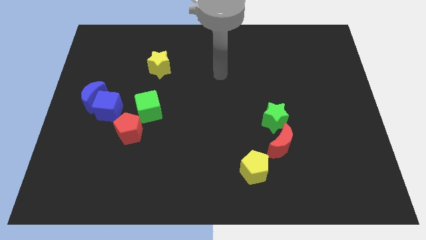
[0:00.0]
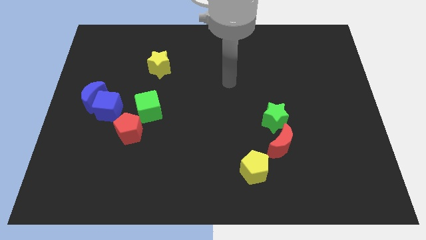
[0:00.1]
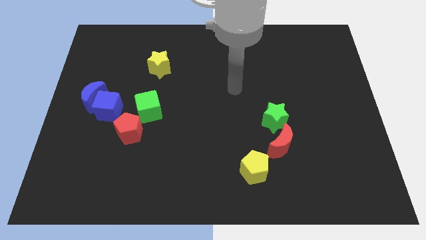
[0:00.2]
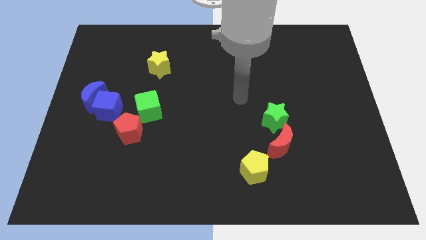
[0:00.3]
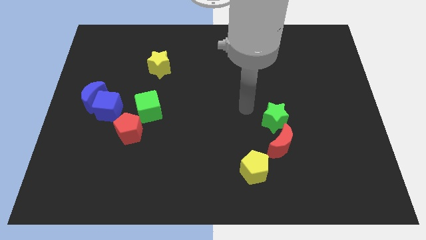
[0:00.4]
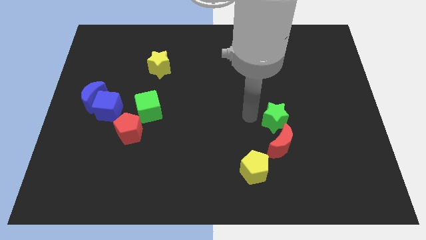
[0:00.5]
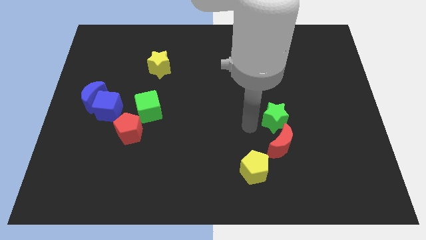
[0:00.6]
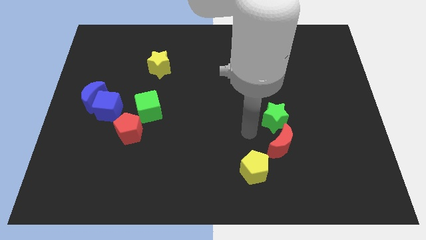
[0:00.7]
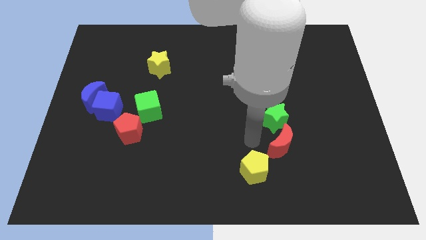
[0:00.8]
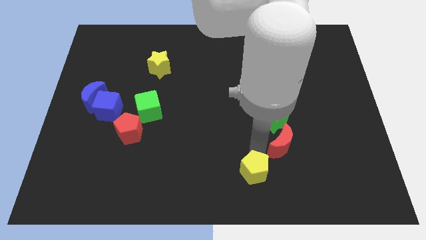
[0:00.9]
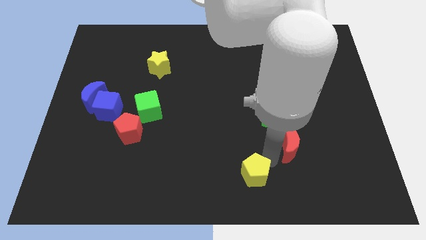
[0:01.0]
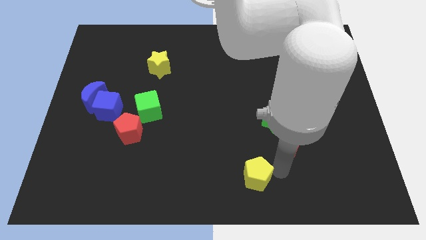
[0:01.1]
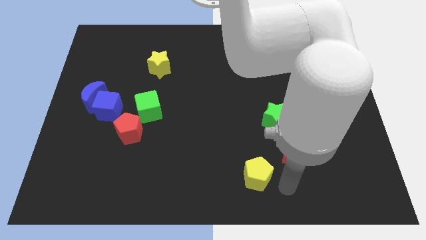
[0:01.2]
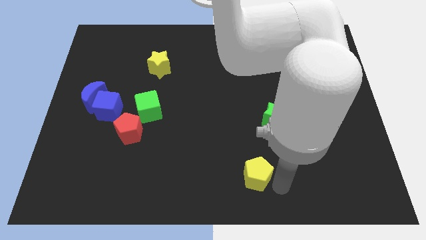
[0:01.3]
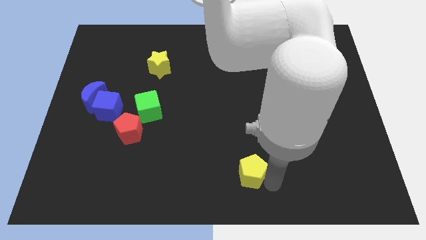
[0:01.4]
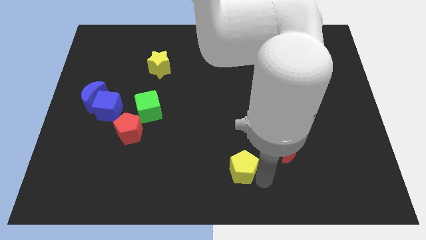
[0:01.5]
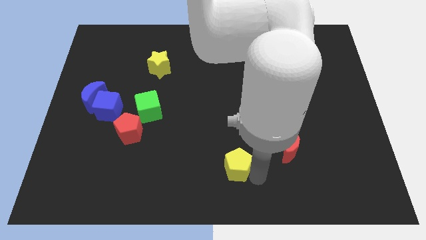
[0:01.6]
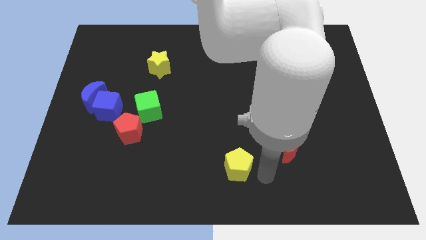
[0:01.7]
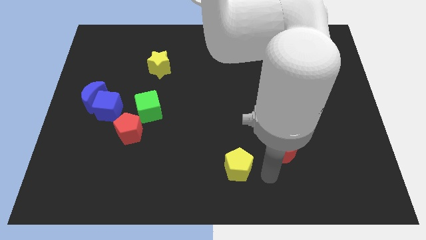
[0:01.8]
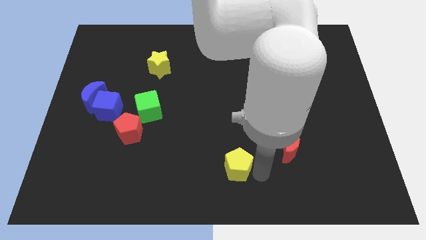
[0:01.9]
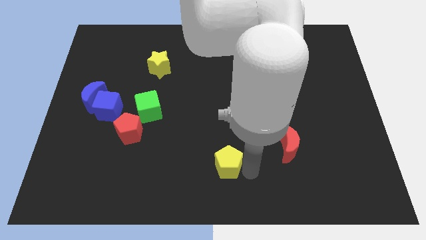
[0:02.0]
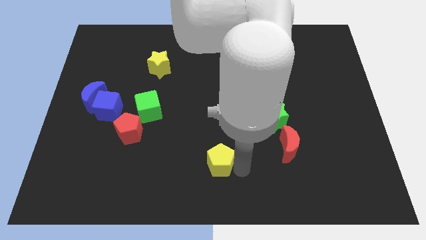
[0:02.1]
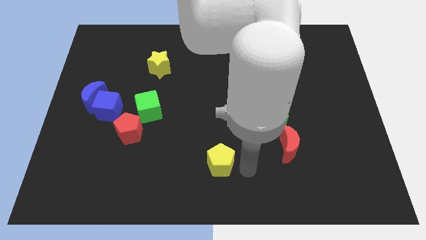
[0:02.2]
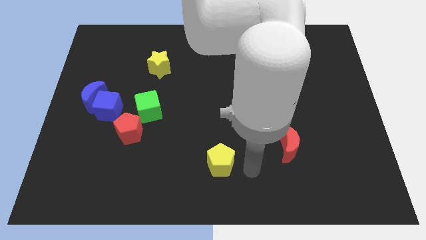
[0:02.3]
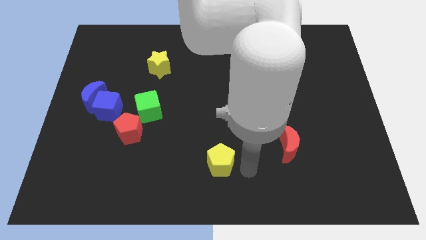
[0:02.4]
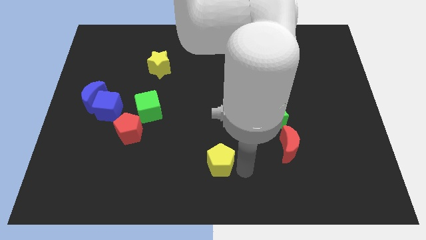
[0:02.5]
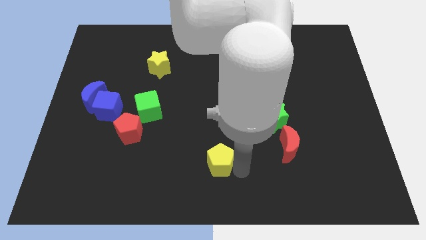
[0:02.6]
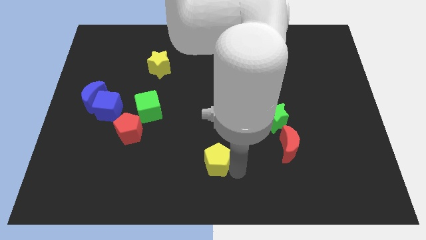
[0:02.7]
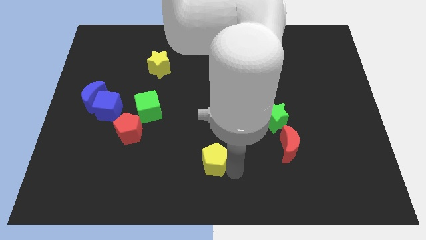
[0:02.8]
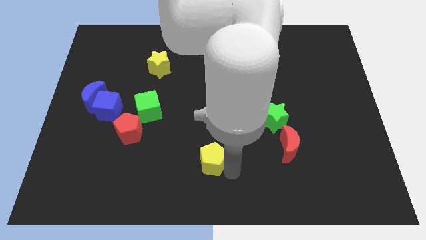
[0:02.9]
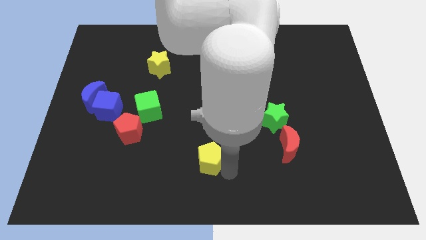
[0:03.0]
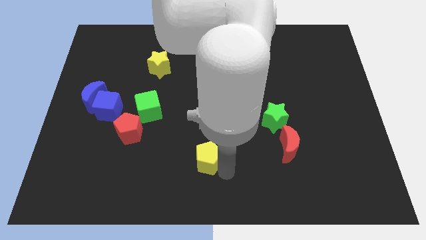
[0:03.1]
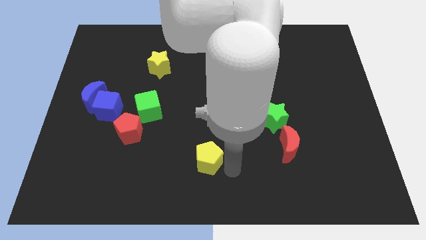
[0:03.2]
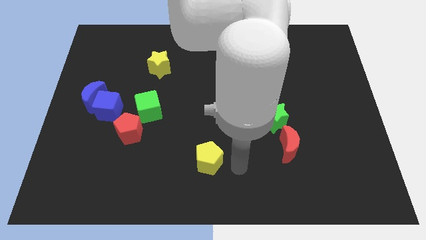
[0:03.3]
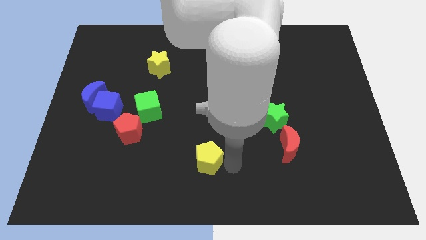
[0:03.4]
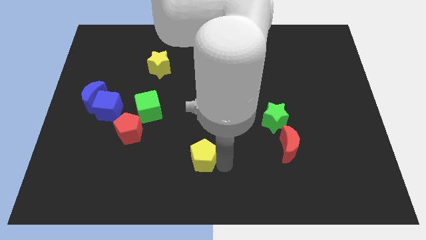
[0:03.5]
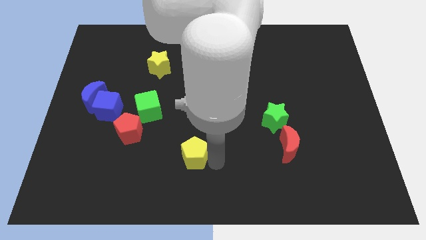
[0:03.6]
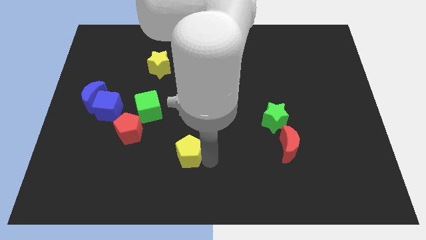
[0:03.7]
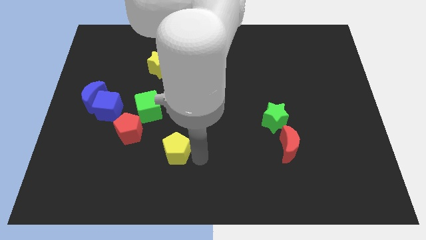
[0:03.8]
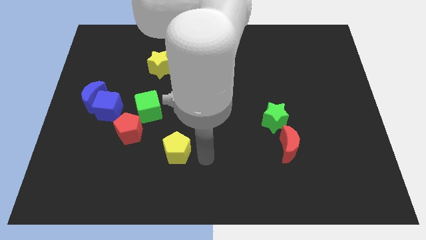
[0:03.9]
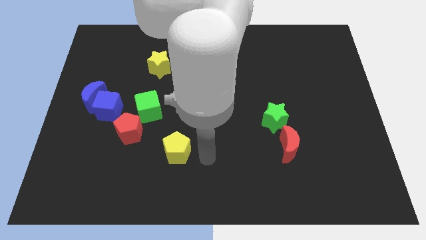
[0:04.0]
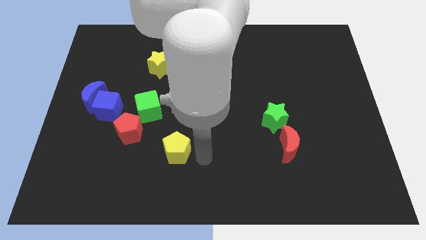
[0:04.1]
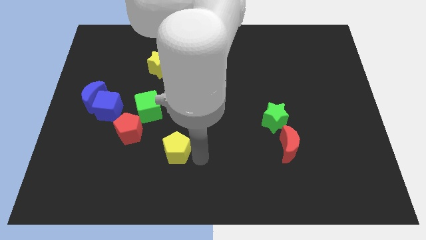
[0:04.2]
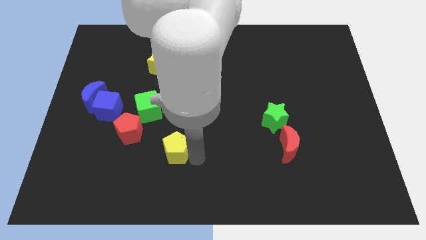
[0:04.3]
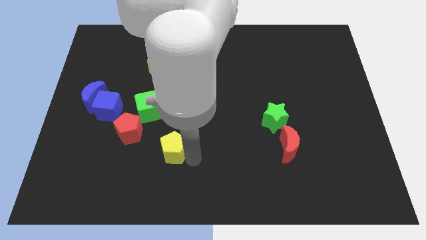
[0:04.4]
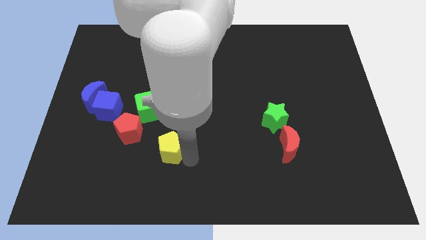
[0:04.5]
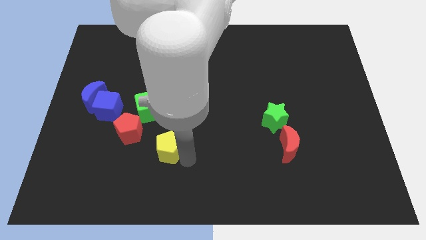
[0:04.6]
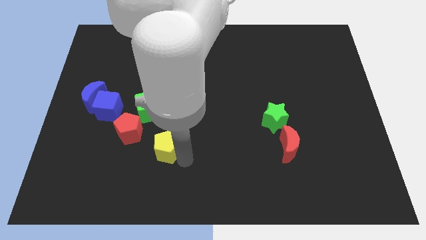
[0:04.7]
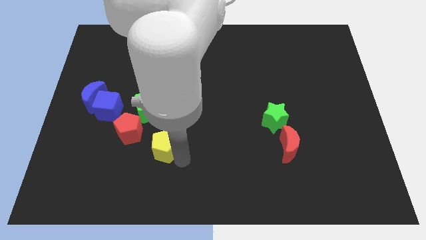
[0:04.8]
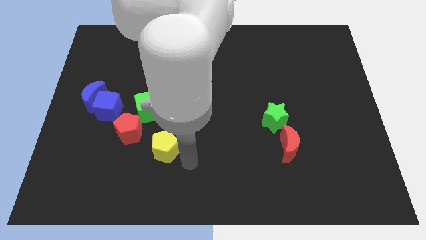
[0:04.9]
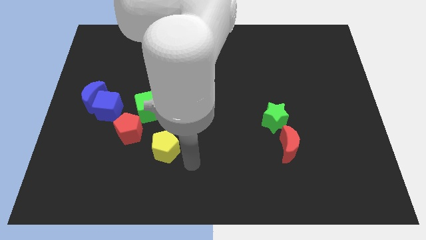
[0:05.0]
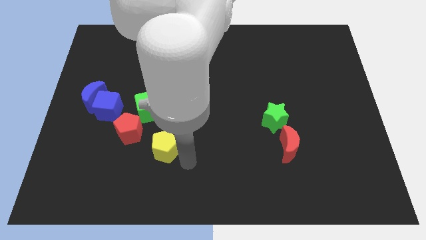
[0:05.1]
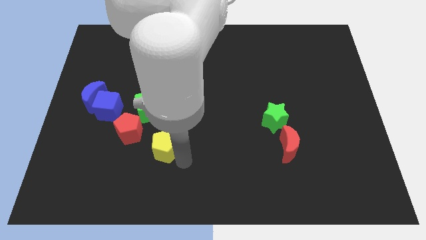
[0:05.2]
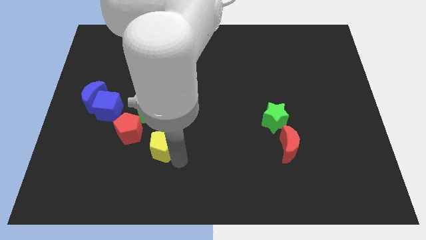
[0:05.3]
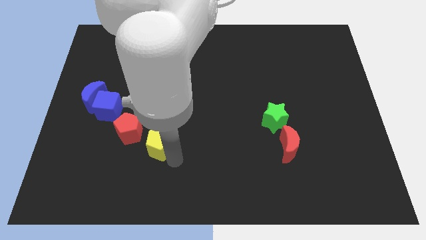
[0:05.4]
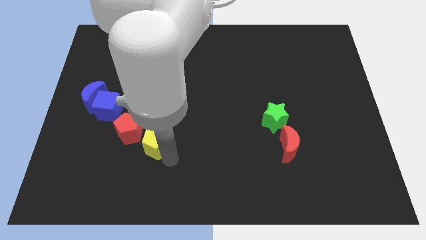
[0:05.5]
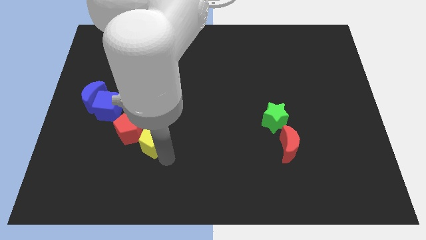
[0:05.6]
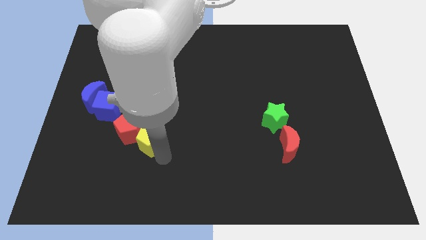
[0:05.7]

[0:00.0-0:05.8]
slide the yellow pentagon to the red pentagon

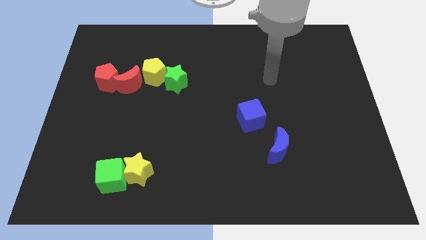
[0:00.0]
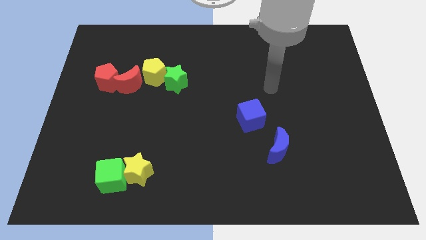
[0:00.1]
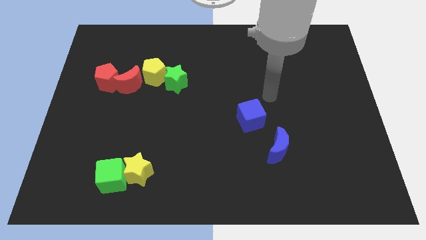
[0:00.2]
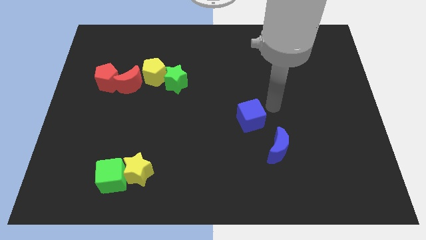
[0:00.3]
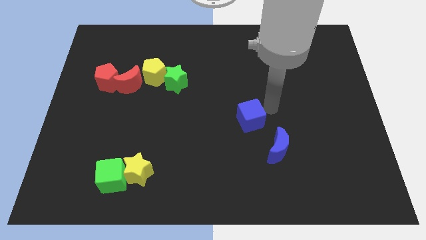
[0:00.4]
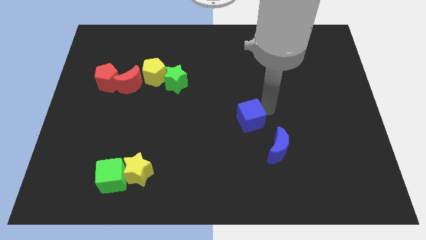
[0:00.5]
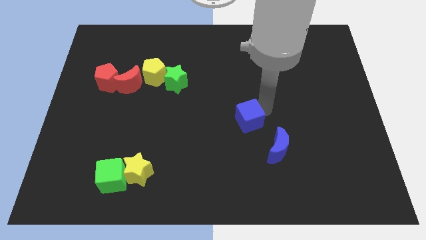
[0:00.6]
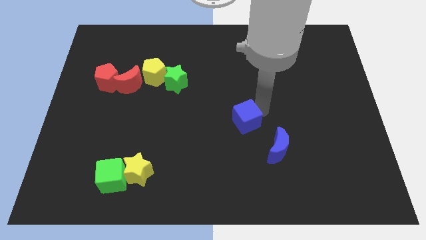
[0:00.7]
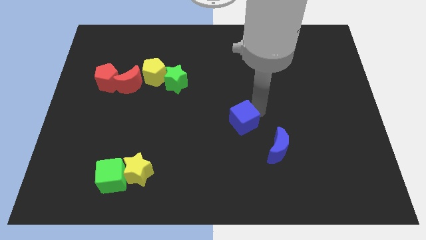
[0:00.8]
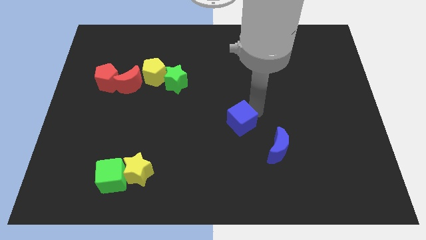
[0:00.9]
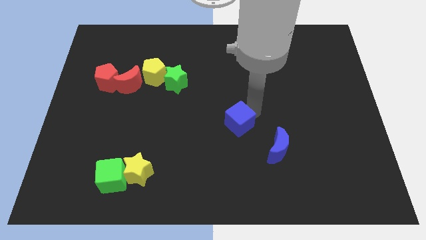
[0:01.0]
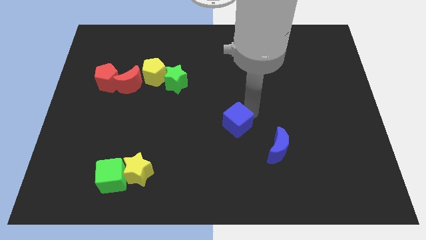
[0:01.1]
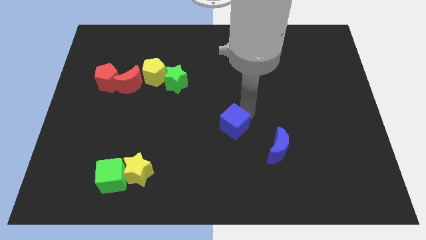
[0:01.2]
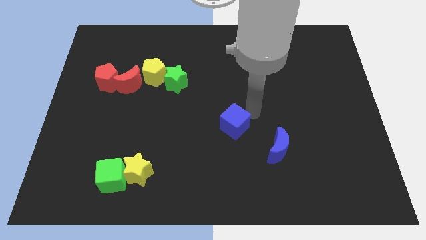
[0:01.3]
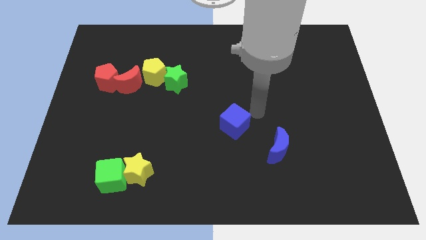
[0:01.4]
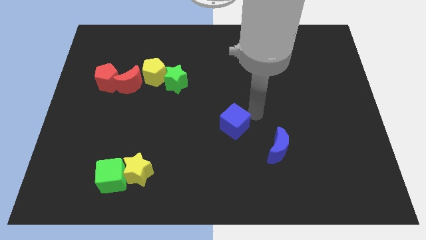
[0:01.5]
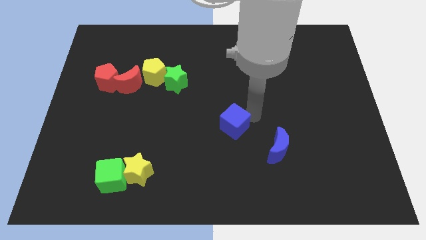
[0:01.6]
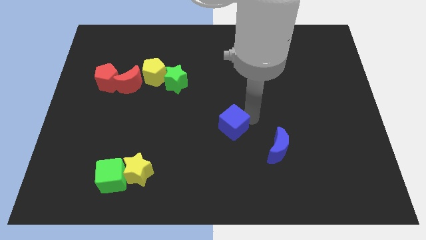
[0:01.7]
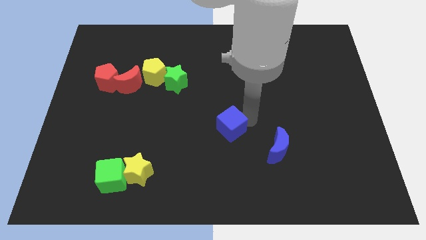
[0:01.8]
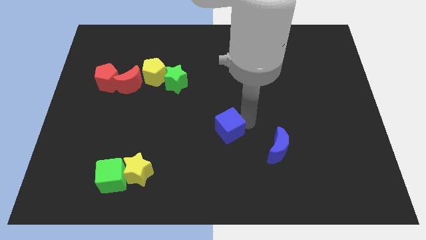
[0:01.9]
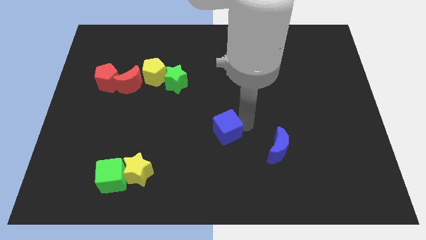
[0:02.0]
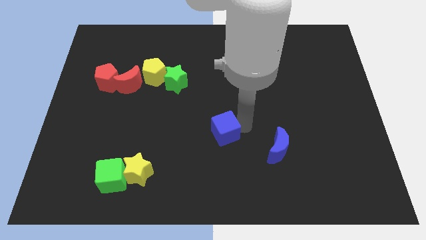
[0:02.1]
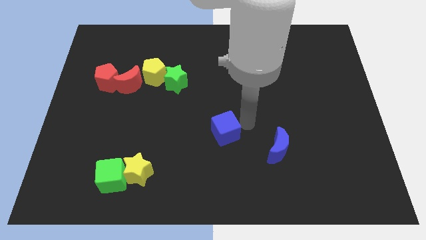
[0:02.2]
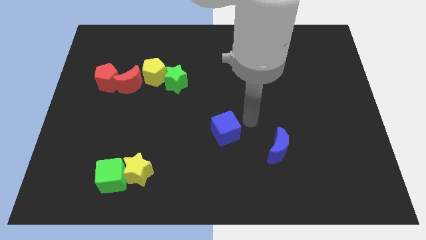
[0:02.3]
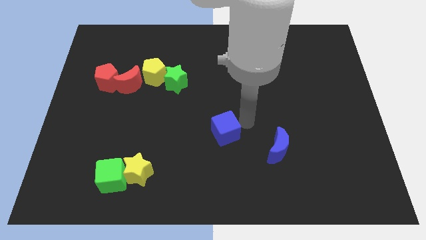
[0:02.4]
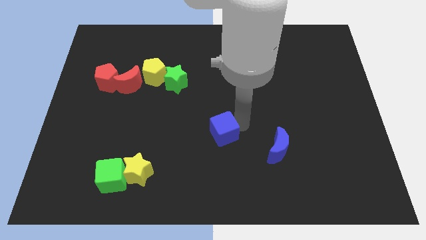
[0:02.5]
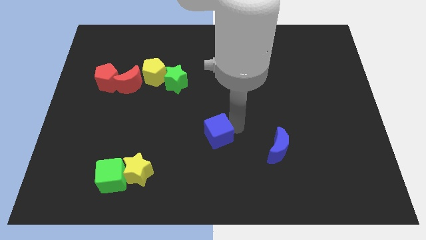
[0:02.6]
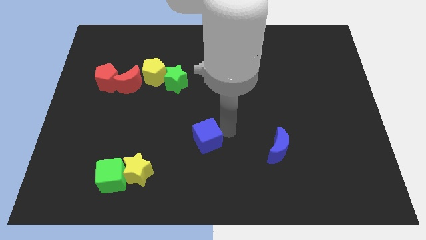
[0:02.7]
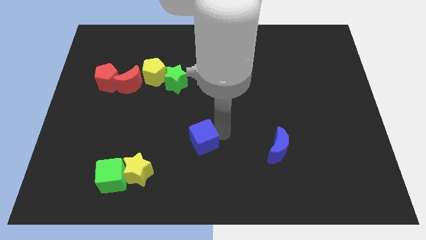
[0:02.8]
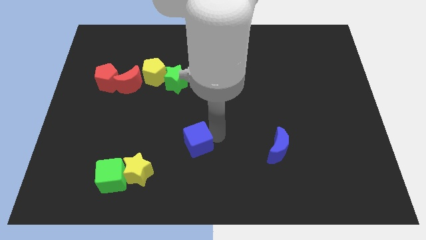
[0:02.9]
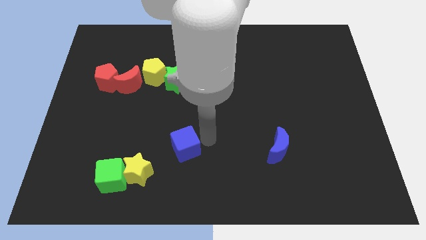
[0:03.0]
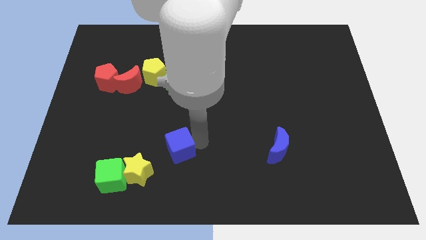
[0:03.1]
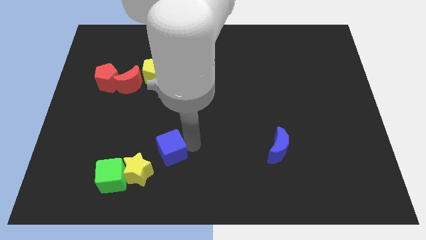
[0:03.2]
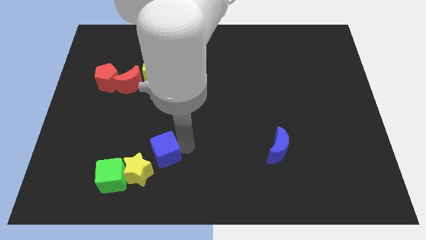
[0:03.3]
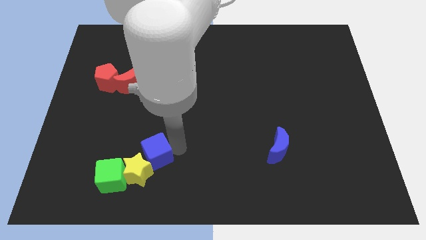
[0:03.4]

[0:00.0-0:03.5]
put the blue cube towards the yellow star
